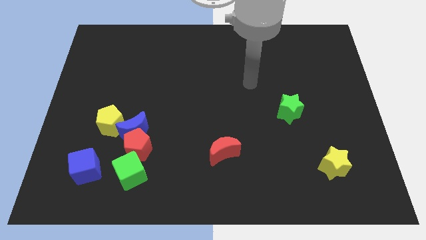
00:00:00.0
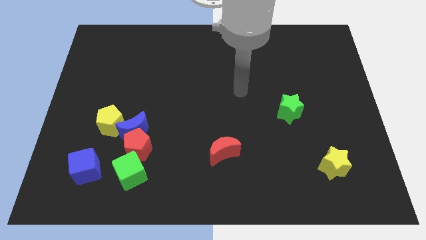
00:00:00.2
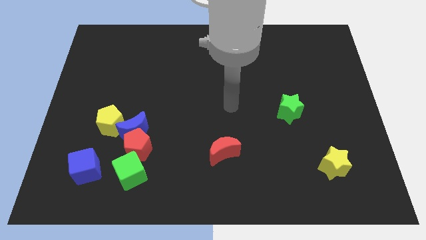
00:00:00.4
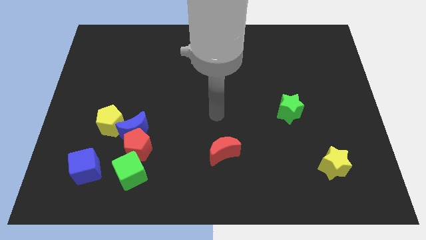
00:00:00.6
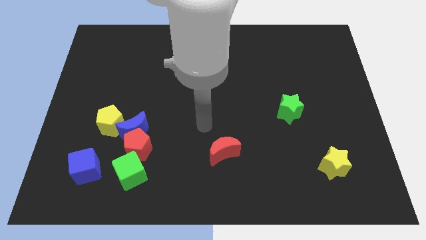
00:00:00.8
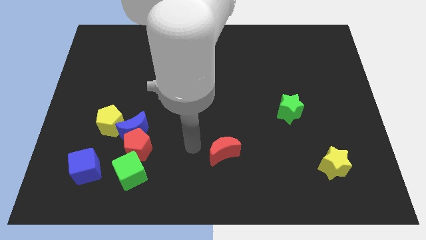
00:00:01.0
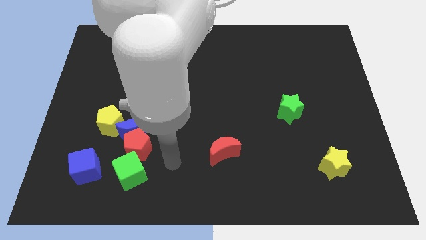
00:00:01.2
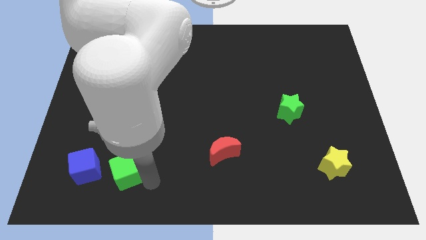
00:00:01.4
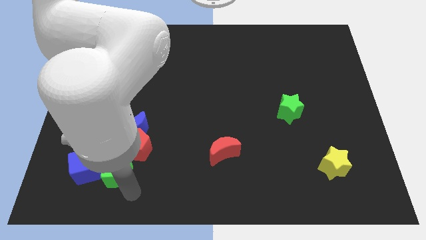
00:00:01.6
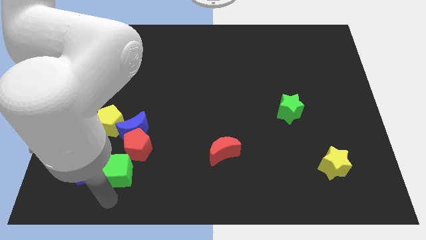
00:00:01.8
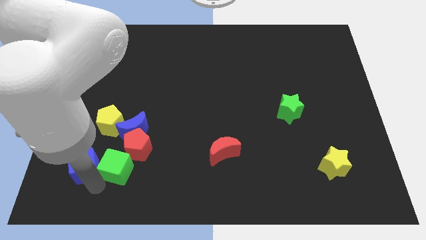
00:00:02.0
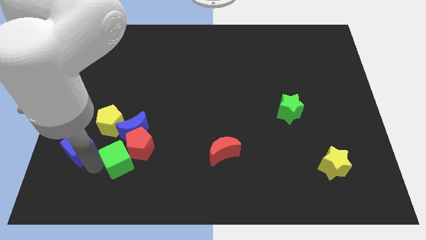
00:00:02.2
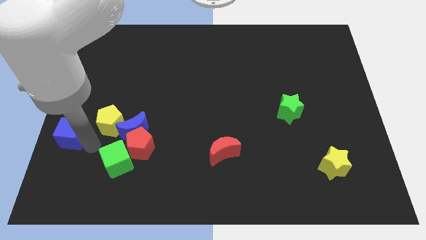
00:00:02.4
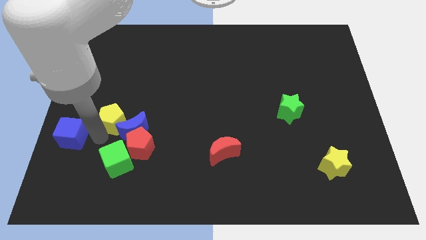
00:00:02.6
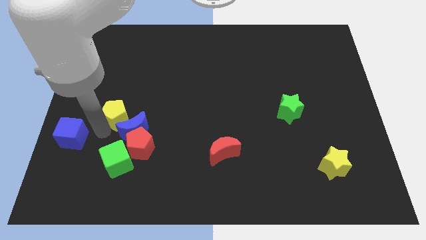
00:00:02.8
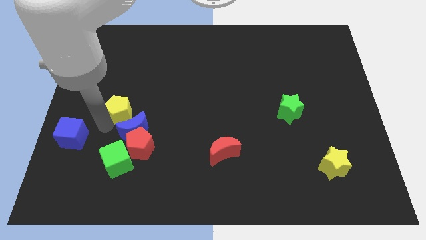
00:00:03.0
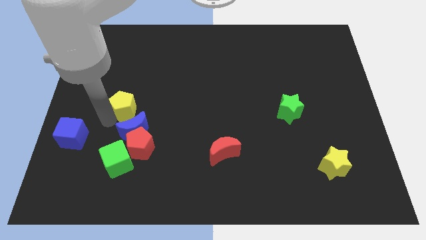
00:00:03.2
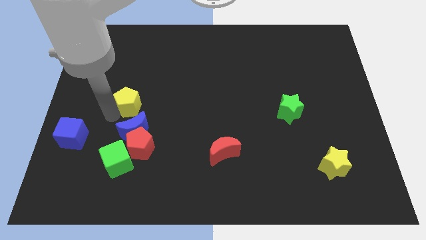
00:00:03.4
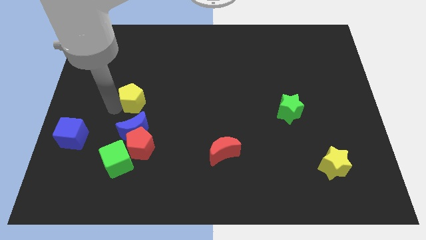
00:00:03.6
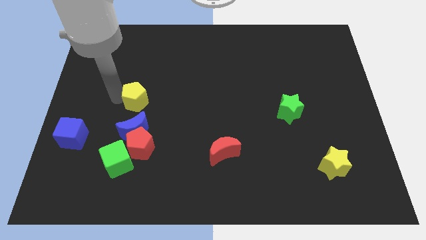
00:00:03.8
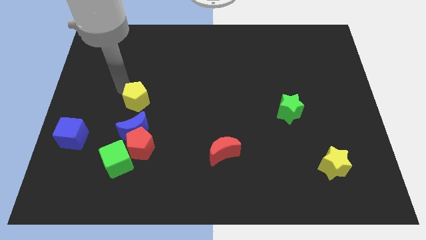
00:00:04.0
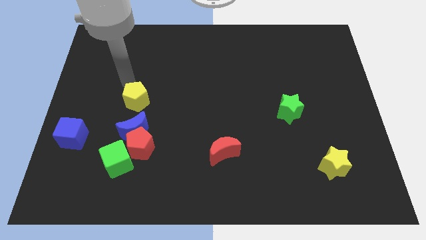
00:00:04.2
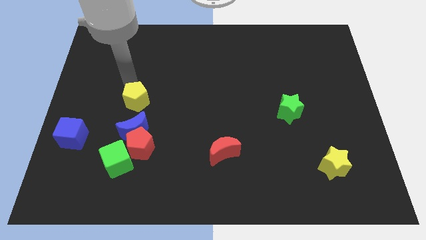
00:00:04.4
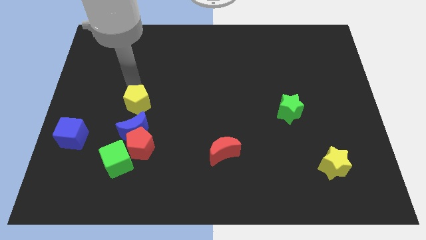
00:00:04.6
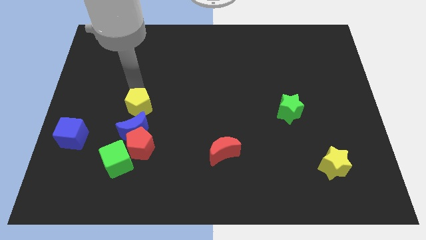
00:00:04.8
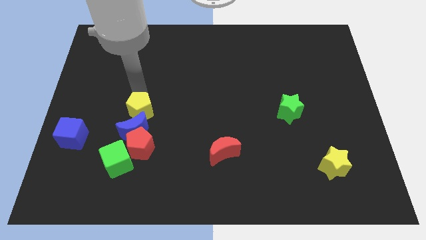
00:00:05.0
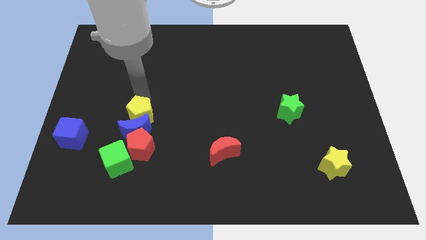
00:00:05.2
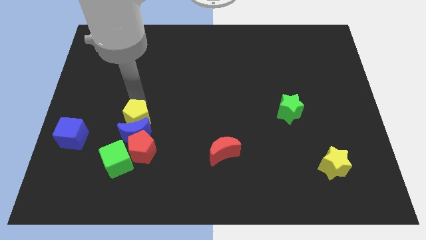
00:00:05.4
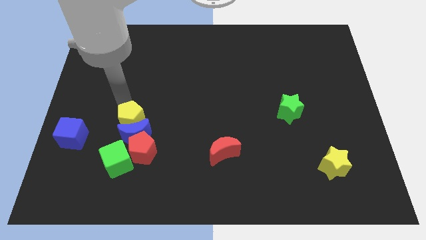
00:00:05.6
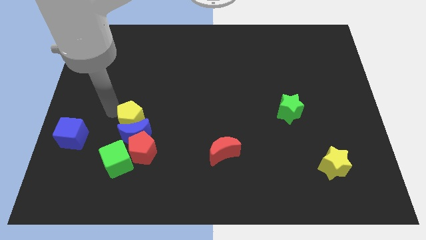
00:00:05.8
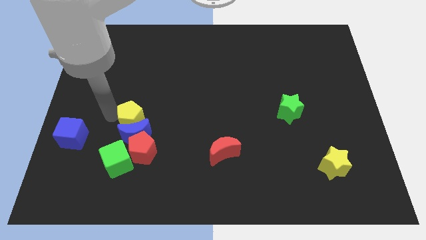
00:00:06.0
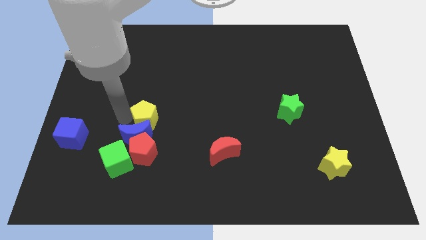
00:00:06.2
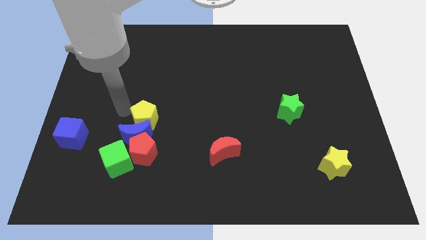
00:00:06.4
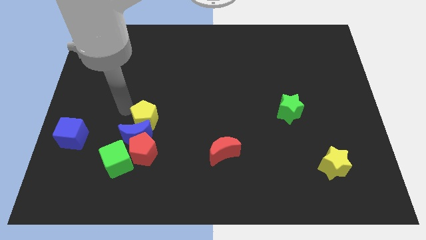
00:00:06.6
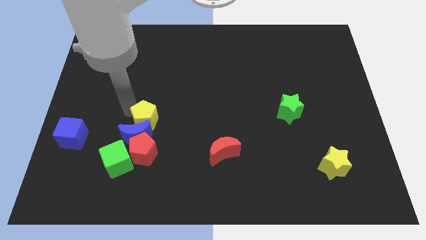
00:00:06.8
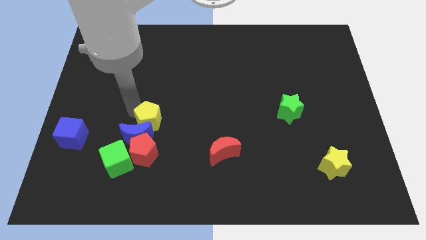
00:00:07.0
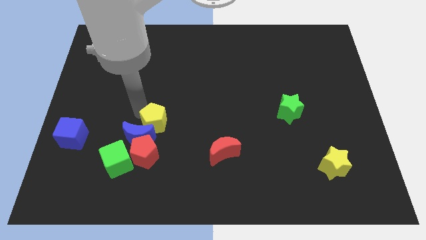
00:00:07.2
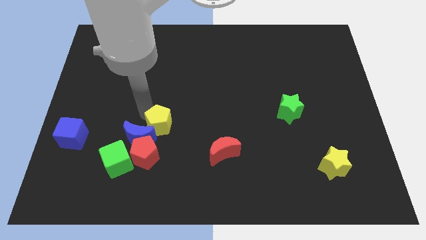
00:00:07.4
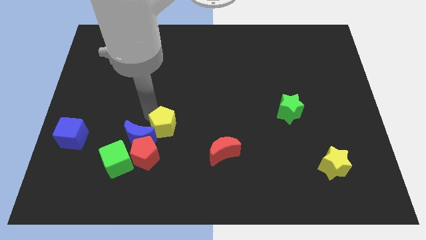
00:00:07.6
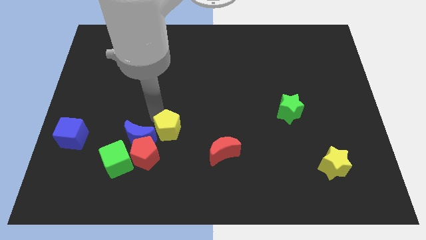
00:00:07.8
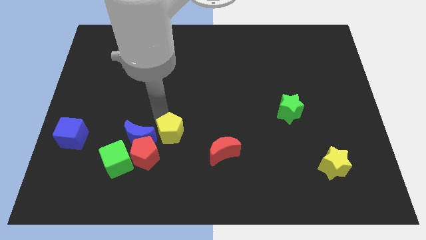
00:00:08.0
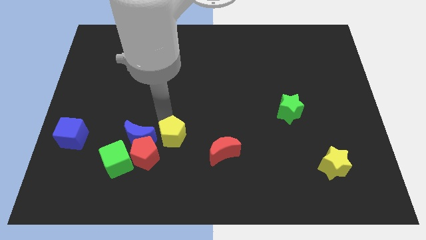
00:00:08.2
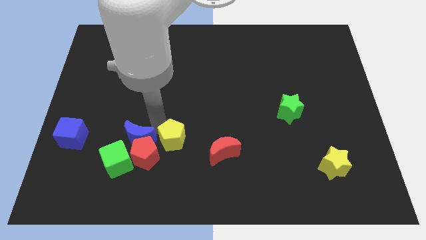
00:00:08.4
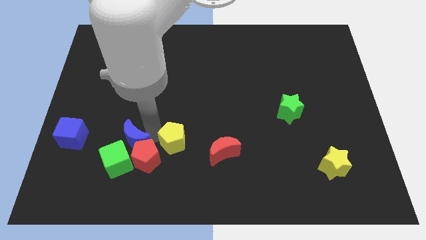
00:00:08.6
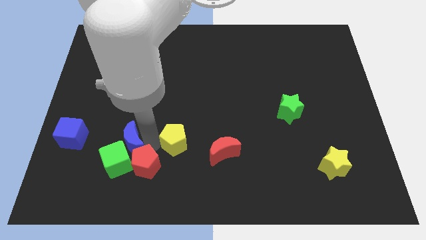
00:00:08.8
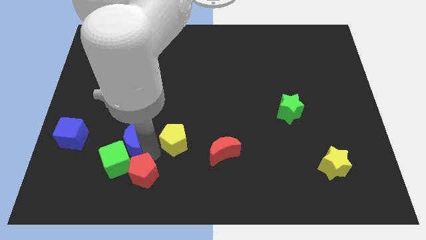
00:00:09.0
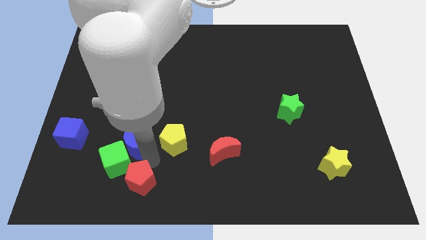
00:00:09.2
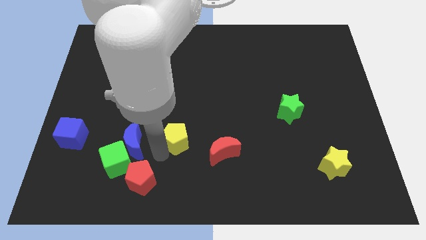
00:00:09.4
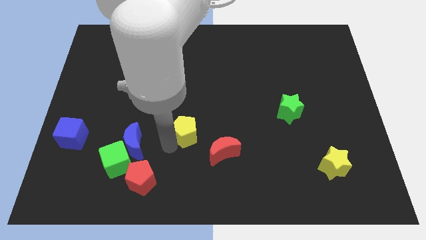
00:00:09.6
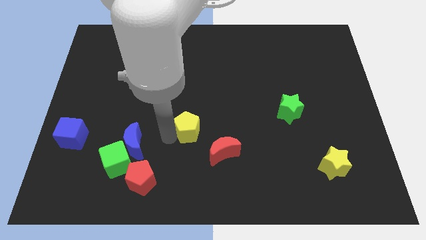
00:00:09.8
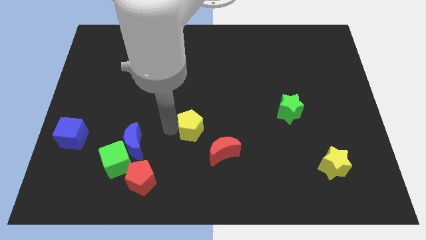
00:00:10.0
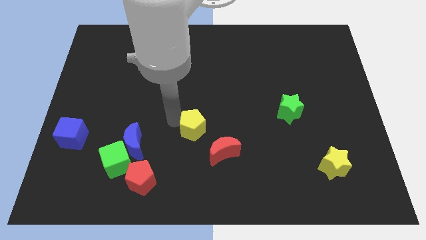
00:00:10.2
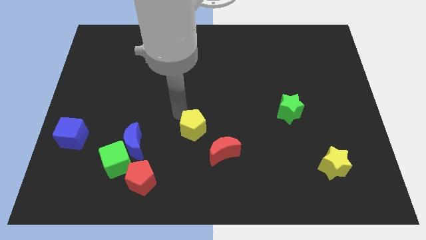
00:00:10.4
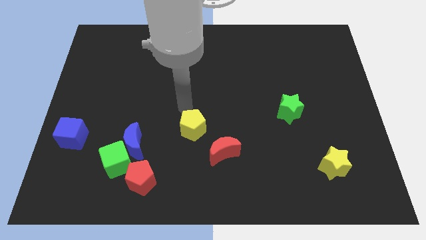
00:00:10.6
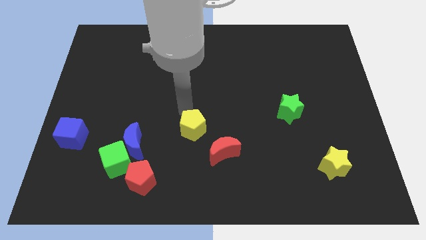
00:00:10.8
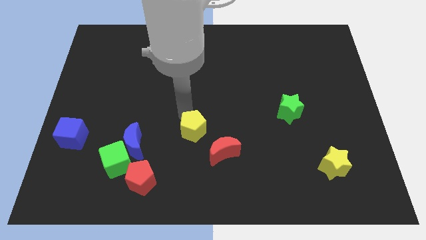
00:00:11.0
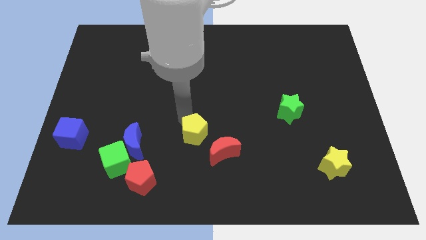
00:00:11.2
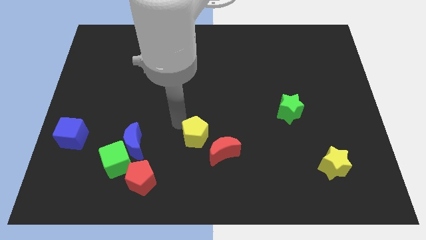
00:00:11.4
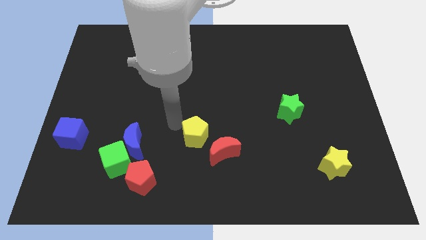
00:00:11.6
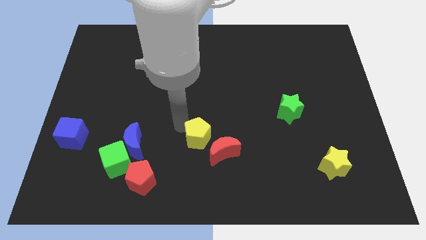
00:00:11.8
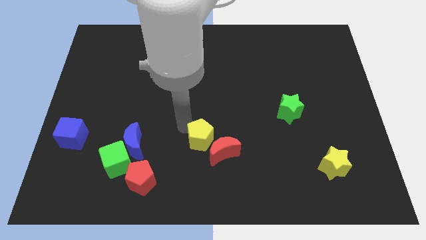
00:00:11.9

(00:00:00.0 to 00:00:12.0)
move the yellow pentagon next to the red moon

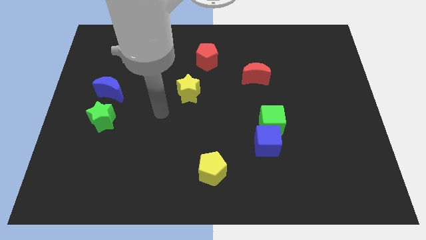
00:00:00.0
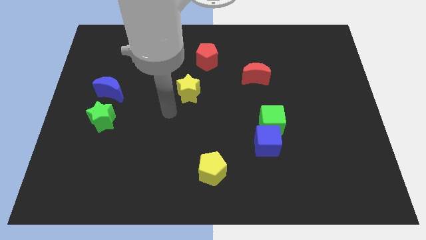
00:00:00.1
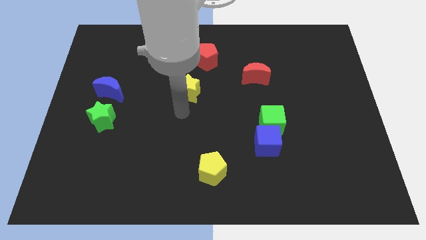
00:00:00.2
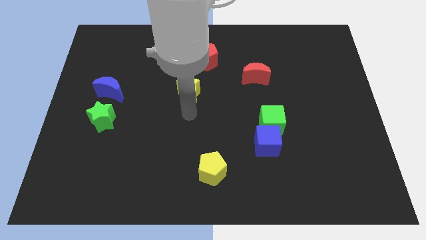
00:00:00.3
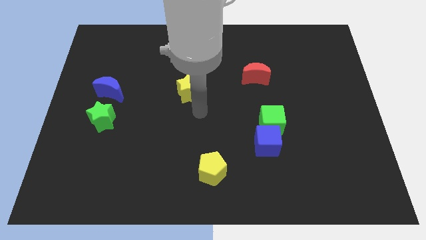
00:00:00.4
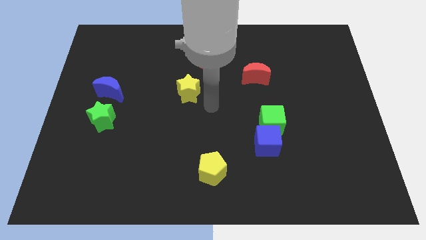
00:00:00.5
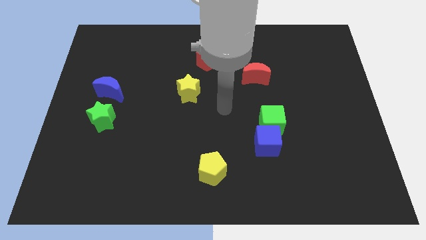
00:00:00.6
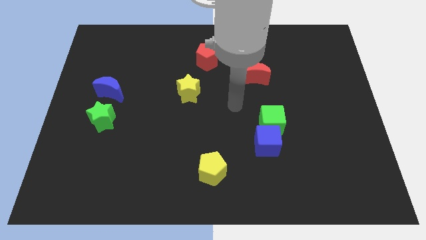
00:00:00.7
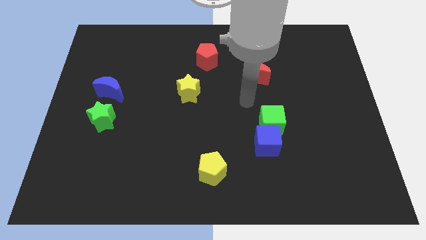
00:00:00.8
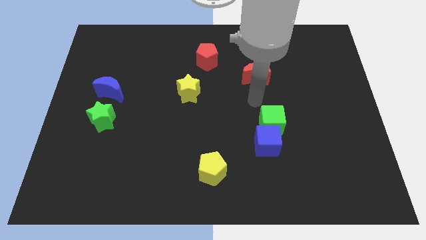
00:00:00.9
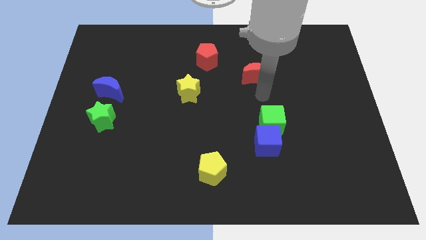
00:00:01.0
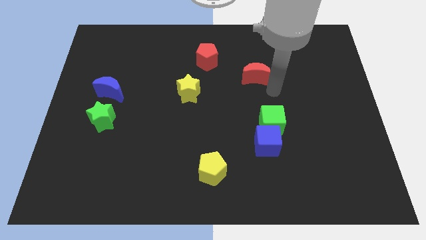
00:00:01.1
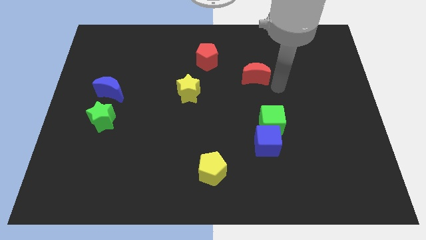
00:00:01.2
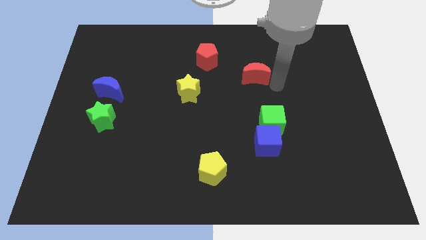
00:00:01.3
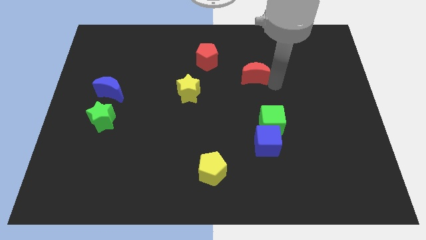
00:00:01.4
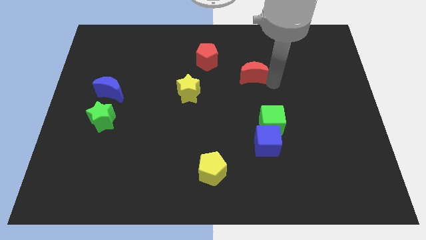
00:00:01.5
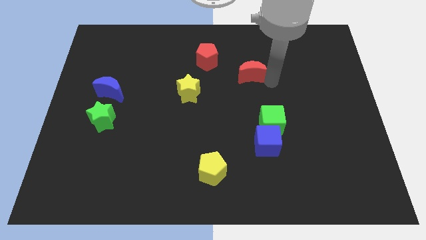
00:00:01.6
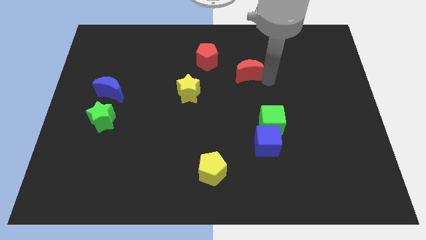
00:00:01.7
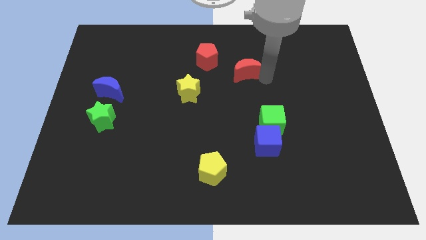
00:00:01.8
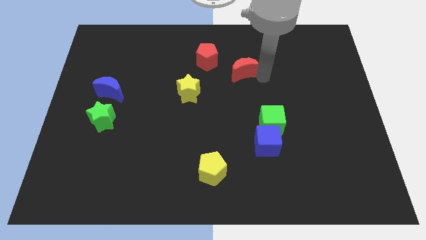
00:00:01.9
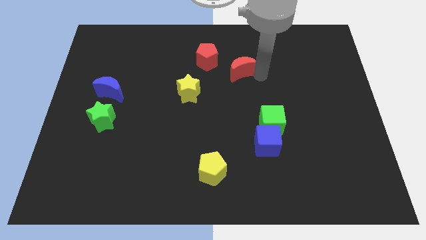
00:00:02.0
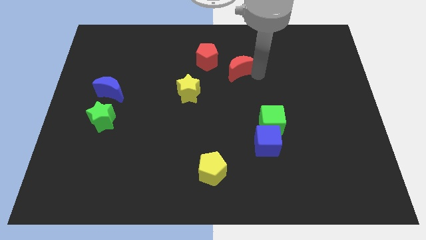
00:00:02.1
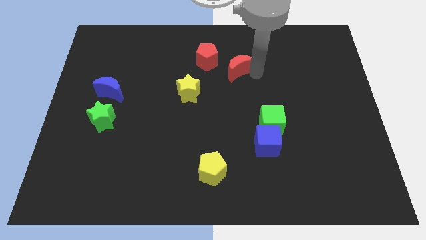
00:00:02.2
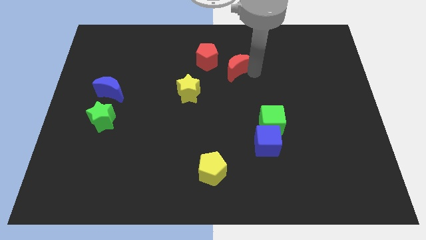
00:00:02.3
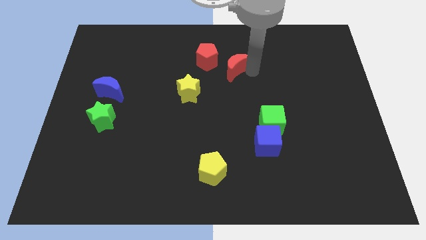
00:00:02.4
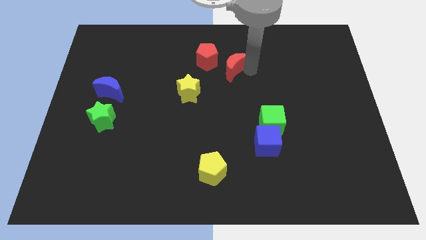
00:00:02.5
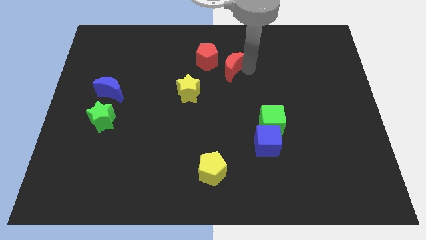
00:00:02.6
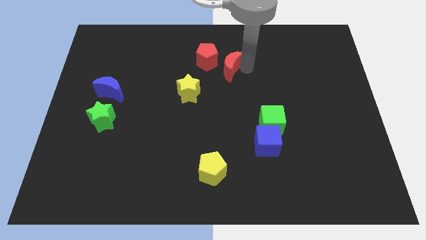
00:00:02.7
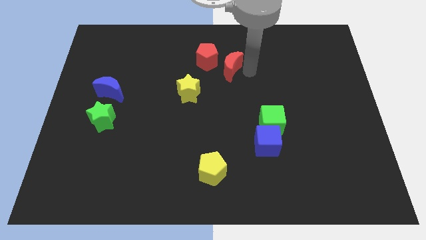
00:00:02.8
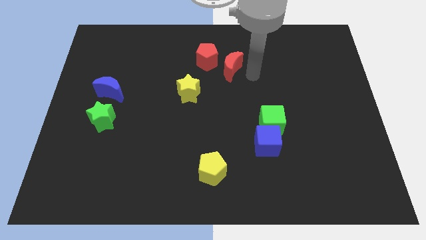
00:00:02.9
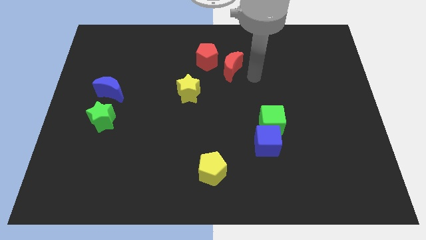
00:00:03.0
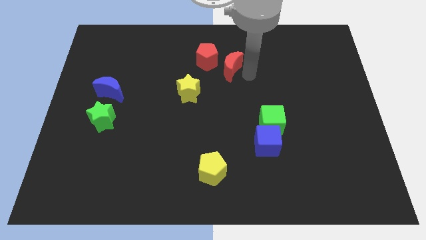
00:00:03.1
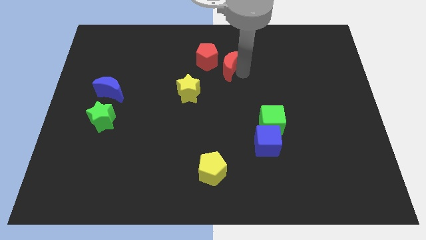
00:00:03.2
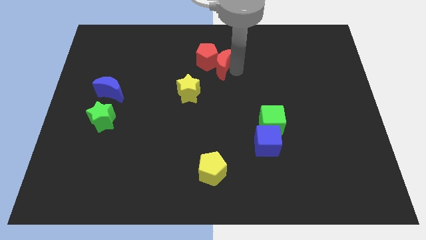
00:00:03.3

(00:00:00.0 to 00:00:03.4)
put the red moon to the red pentagon
